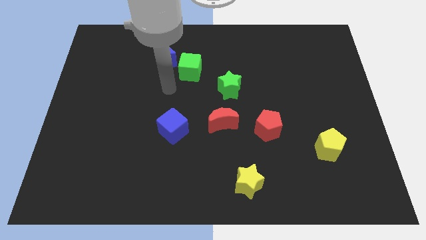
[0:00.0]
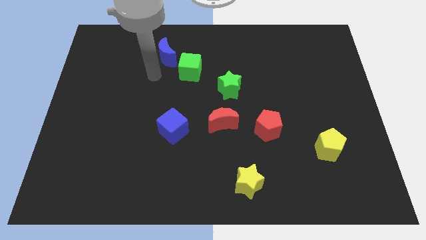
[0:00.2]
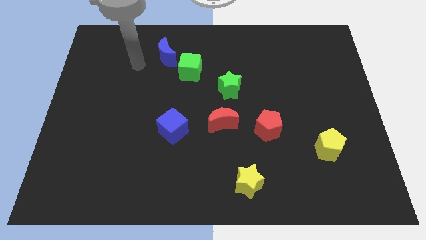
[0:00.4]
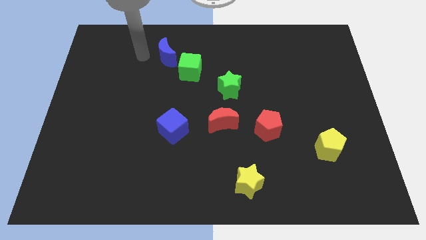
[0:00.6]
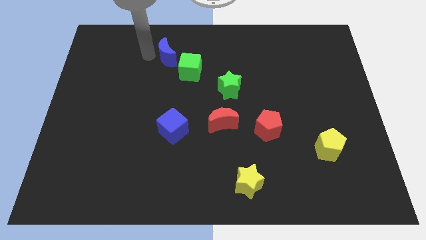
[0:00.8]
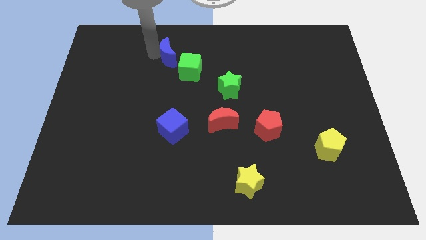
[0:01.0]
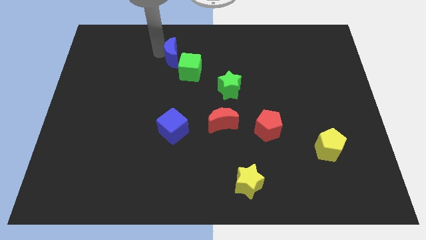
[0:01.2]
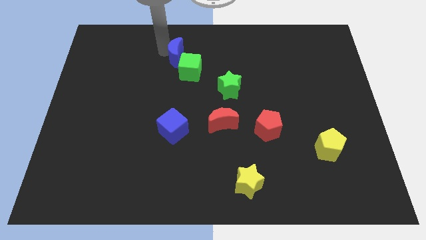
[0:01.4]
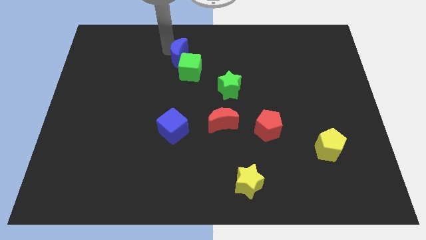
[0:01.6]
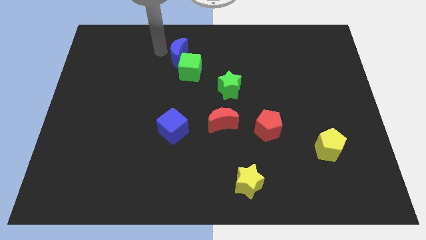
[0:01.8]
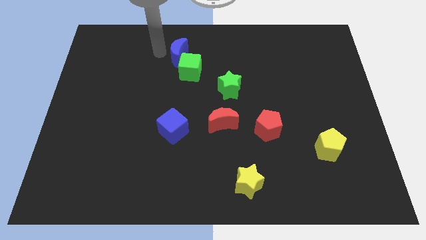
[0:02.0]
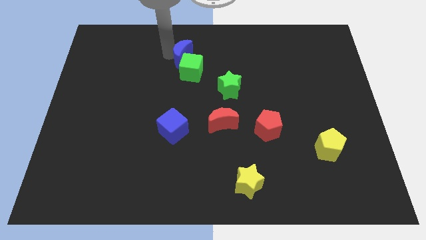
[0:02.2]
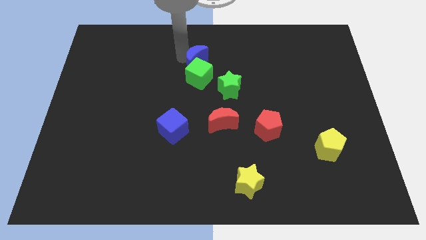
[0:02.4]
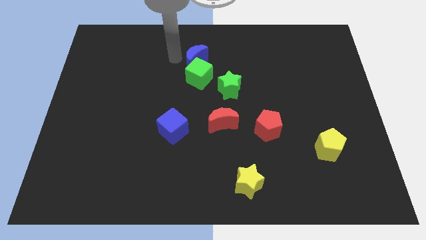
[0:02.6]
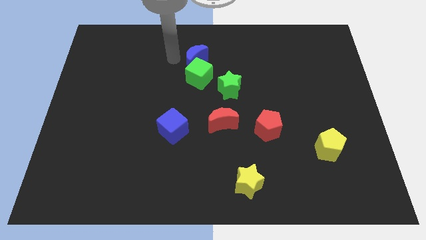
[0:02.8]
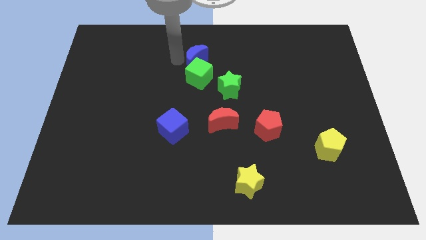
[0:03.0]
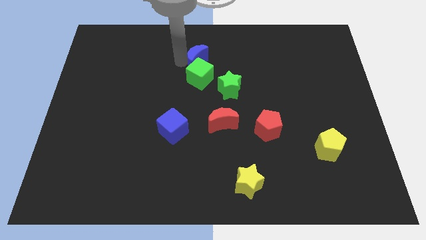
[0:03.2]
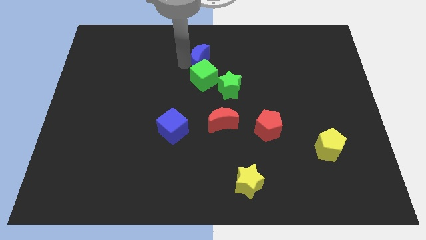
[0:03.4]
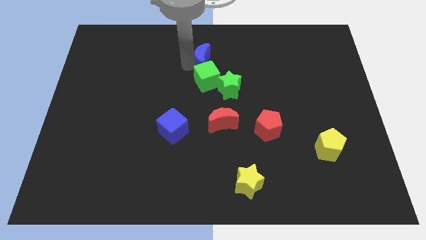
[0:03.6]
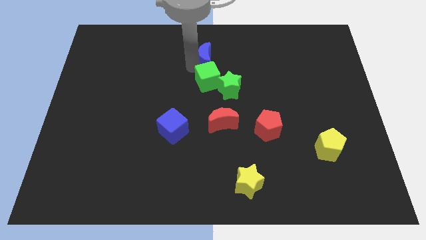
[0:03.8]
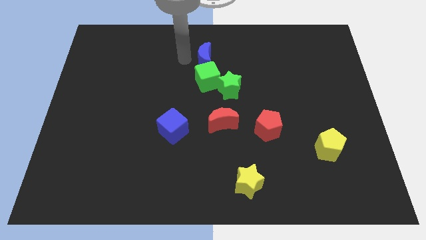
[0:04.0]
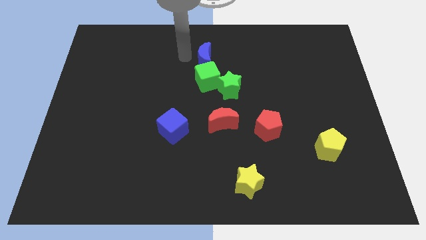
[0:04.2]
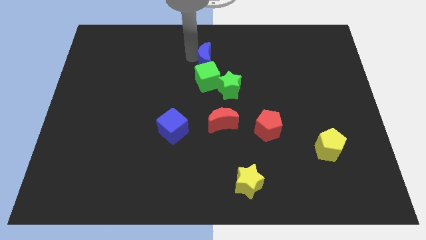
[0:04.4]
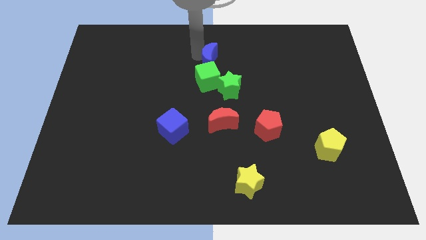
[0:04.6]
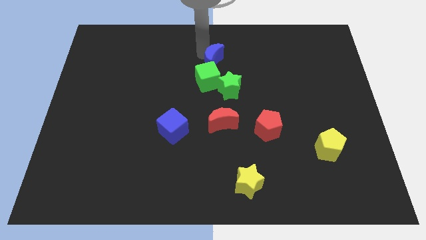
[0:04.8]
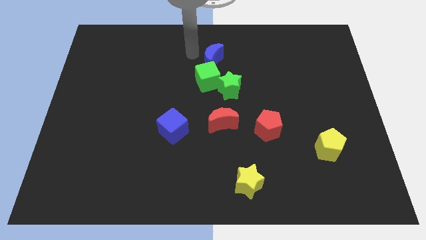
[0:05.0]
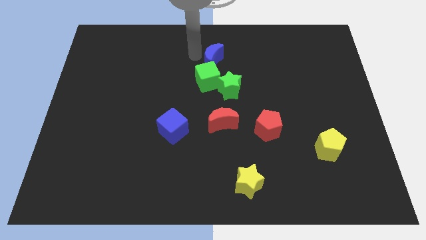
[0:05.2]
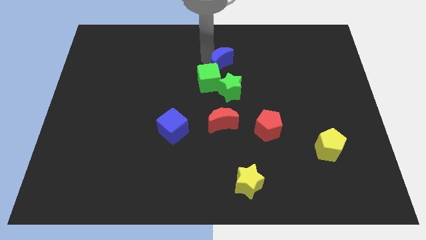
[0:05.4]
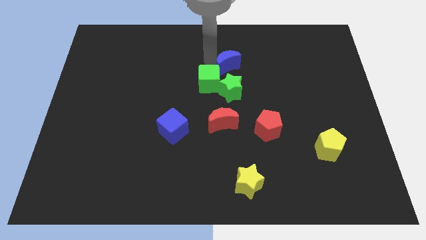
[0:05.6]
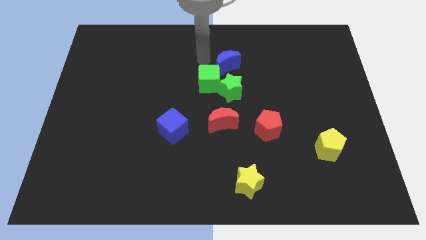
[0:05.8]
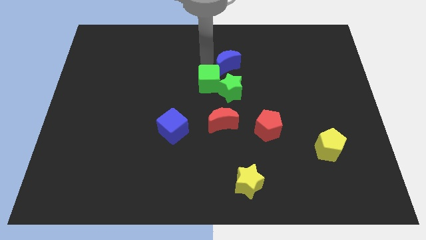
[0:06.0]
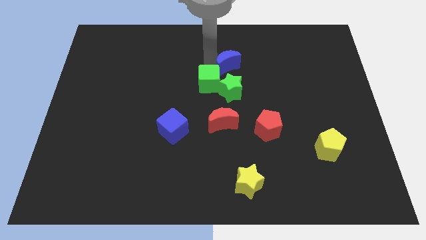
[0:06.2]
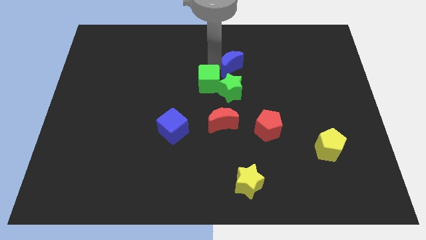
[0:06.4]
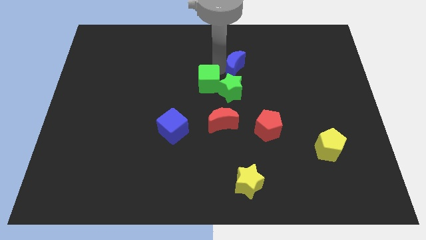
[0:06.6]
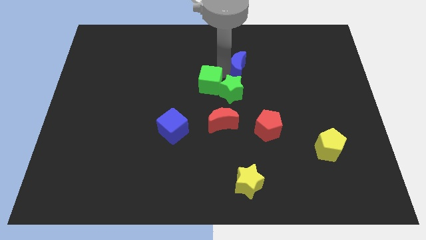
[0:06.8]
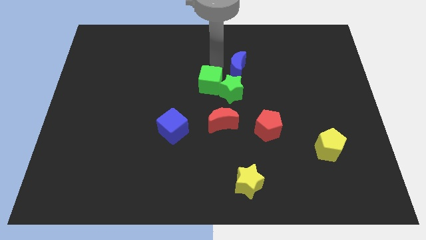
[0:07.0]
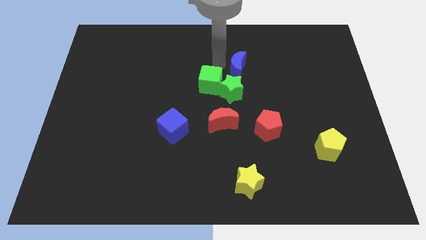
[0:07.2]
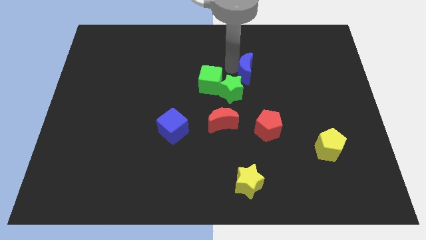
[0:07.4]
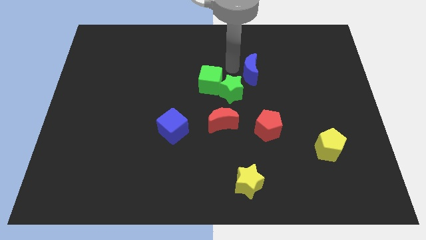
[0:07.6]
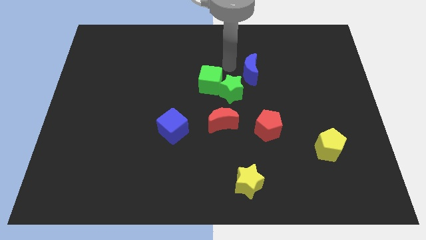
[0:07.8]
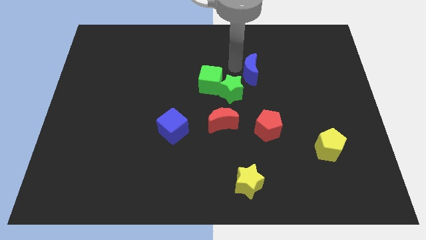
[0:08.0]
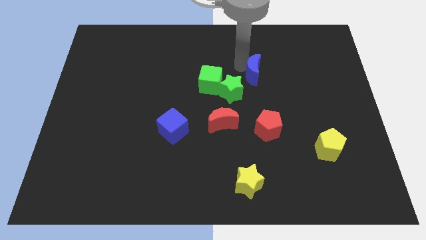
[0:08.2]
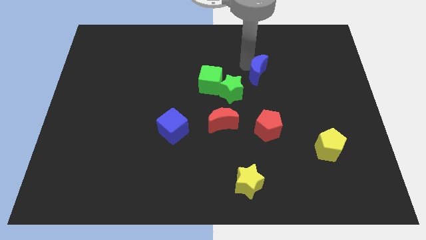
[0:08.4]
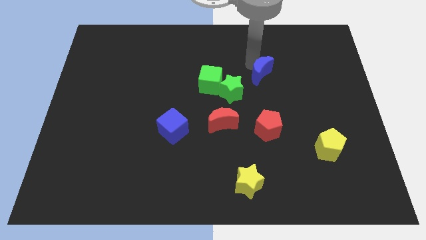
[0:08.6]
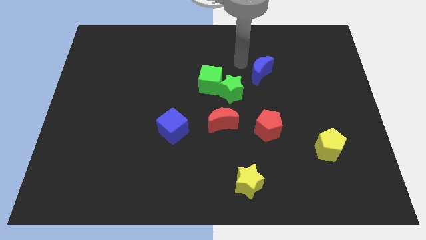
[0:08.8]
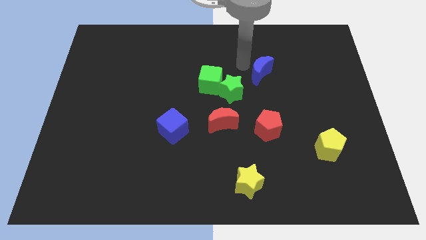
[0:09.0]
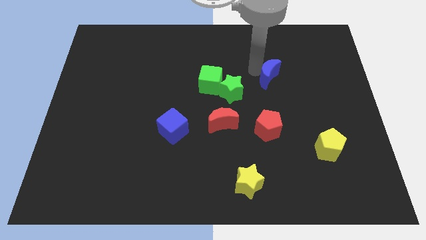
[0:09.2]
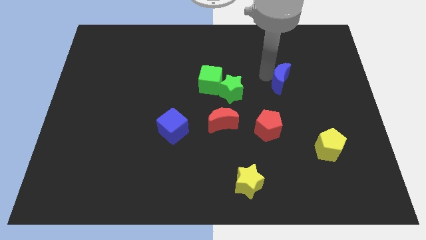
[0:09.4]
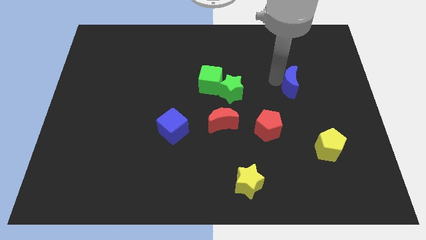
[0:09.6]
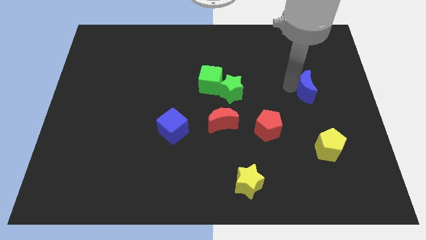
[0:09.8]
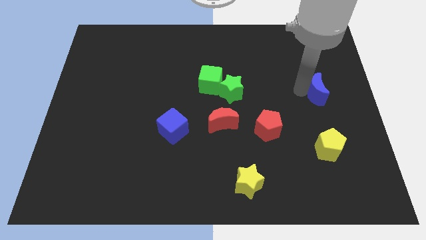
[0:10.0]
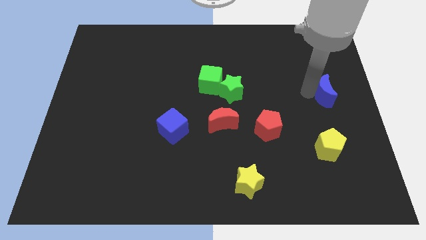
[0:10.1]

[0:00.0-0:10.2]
push the blue moon to the center right

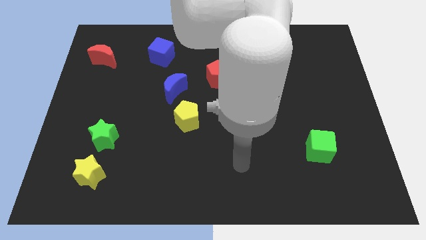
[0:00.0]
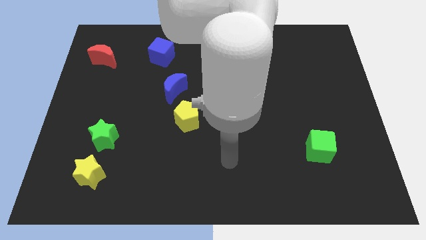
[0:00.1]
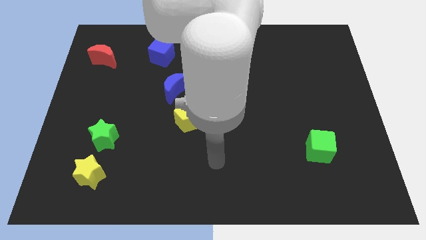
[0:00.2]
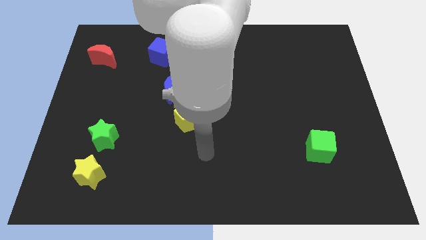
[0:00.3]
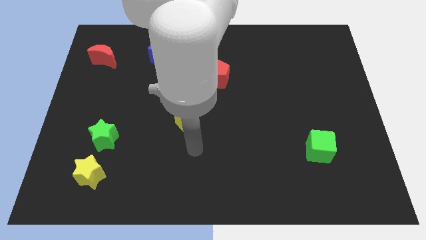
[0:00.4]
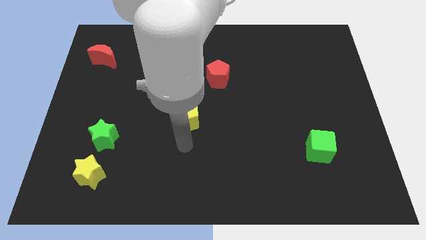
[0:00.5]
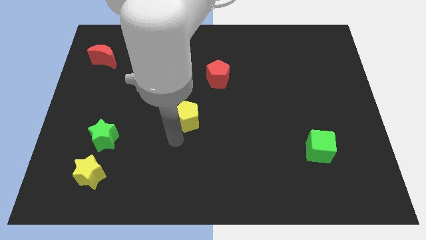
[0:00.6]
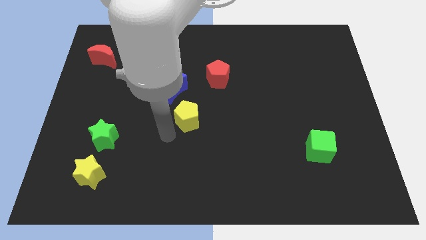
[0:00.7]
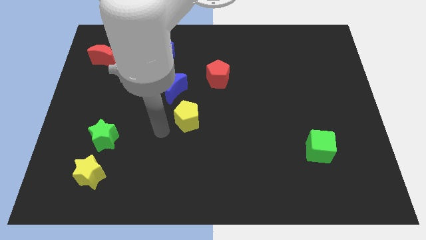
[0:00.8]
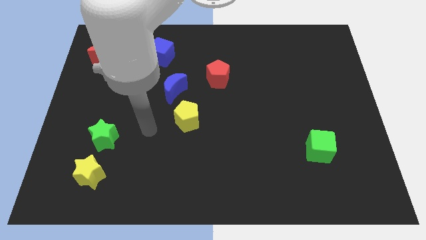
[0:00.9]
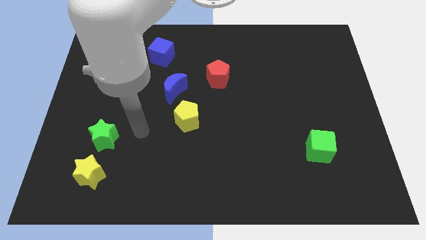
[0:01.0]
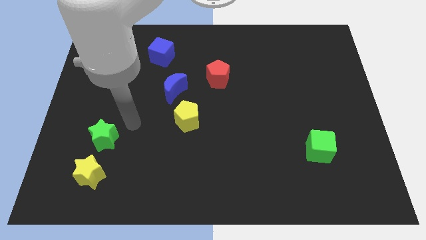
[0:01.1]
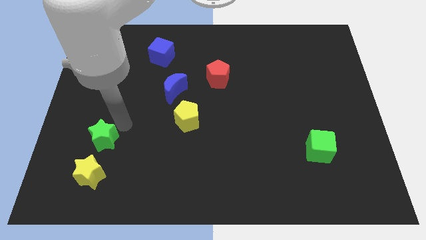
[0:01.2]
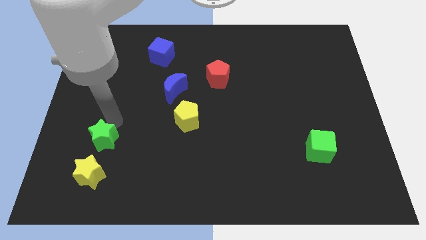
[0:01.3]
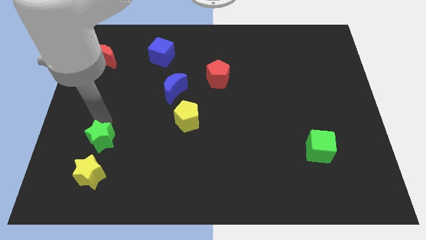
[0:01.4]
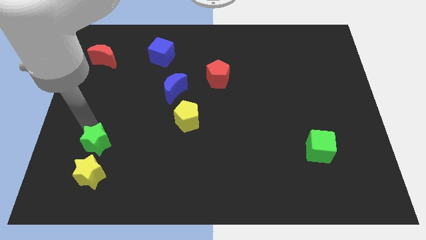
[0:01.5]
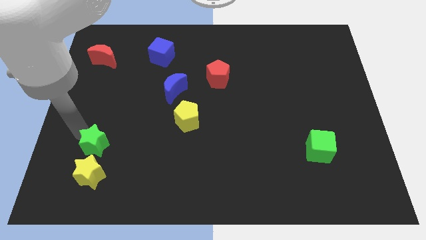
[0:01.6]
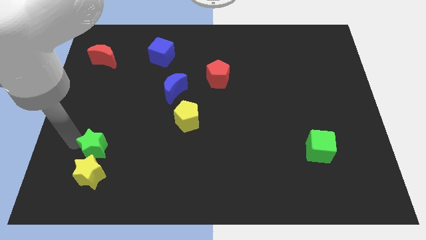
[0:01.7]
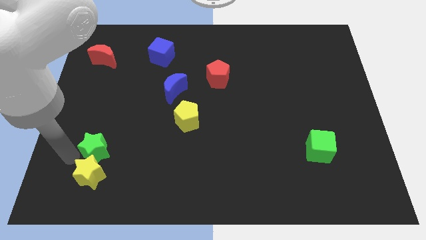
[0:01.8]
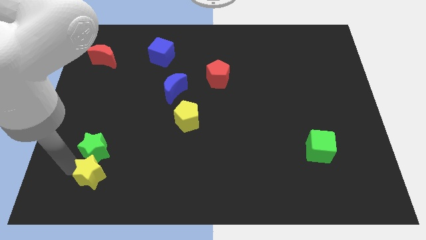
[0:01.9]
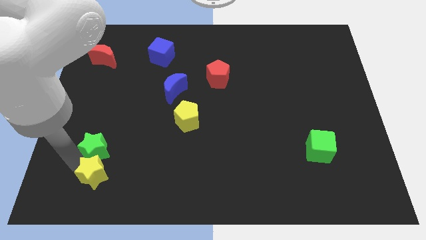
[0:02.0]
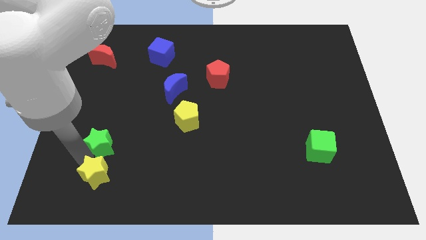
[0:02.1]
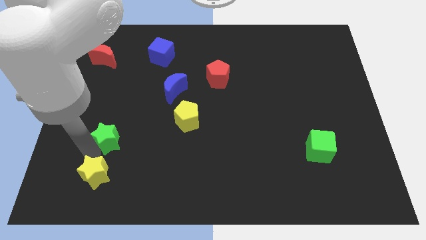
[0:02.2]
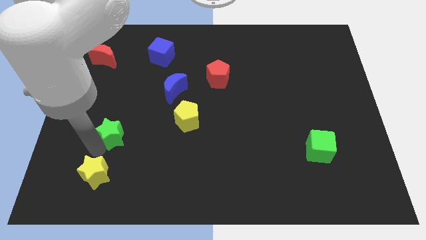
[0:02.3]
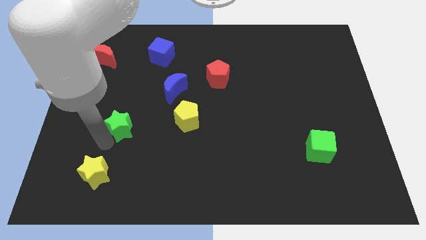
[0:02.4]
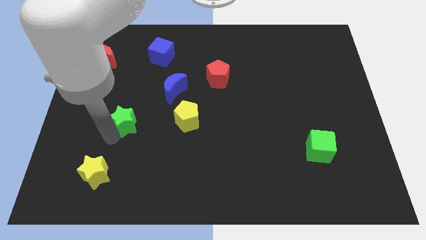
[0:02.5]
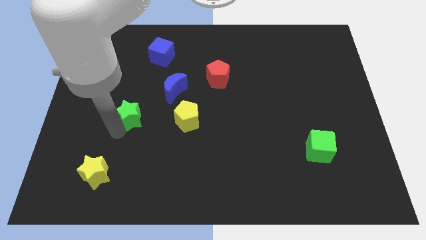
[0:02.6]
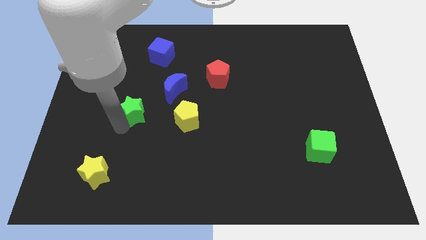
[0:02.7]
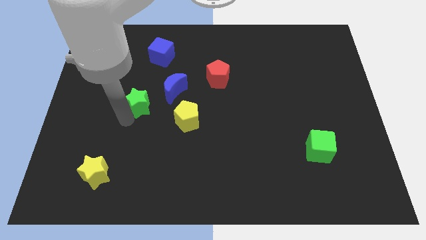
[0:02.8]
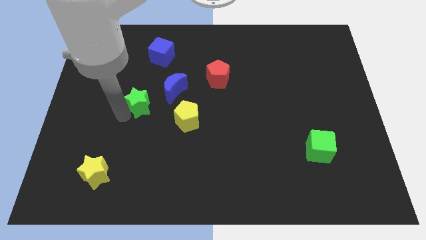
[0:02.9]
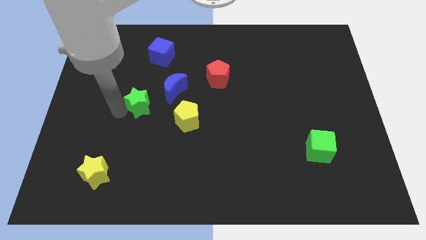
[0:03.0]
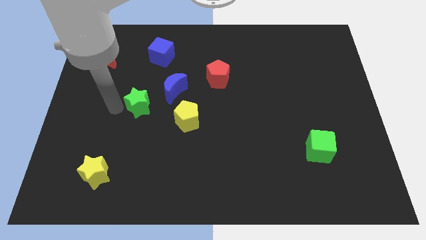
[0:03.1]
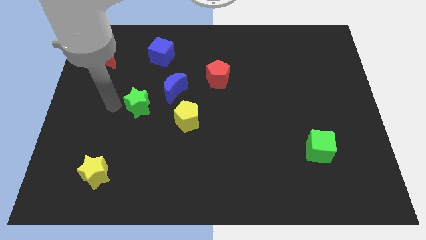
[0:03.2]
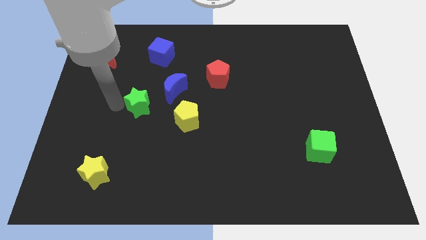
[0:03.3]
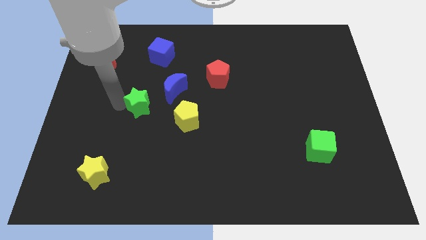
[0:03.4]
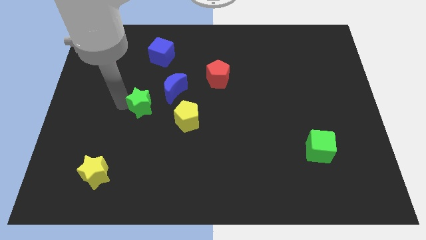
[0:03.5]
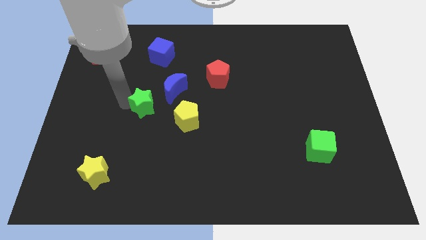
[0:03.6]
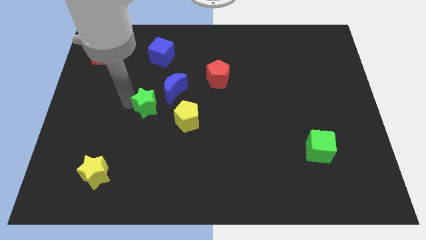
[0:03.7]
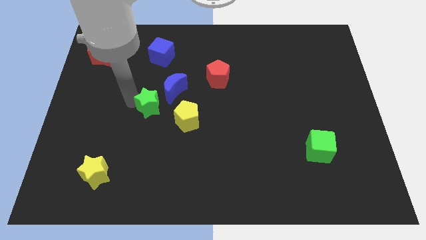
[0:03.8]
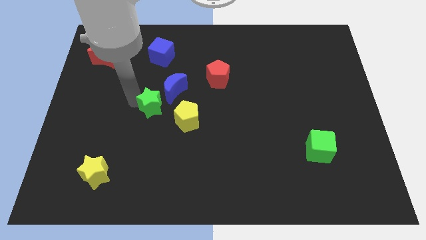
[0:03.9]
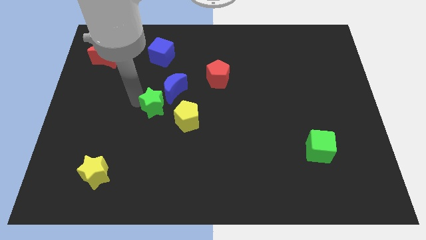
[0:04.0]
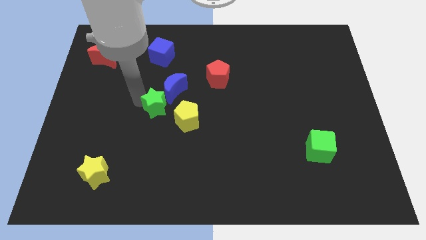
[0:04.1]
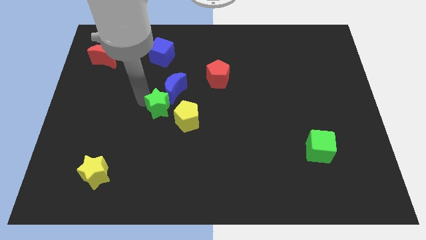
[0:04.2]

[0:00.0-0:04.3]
push the green star to the center of the board
